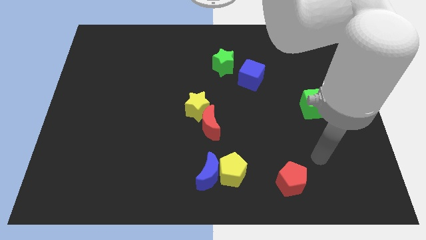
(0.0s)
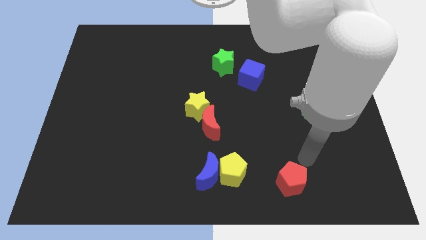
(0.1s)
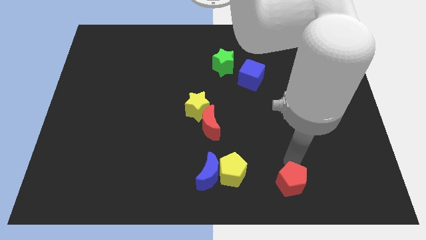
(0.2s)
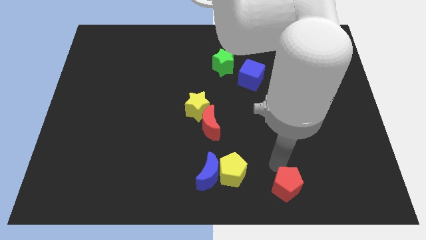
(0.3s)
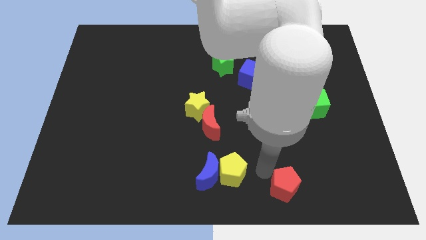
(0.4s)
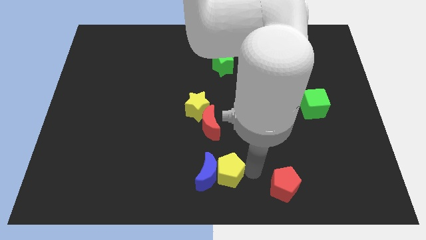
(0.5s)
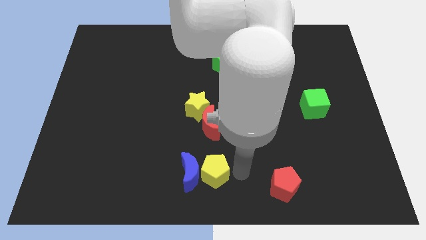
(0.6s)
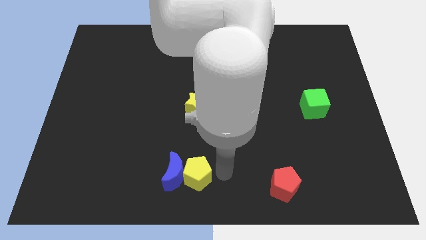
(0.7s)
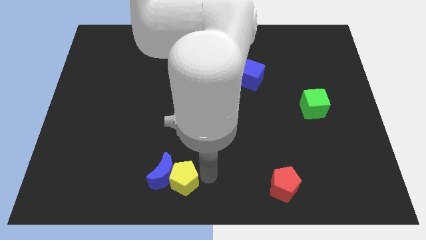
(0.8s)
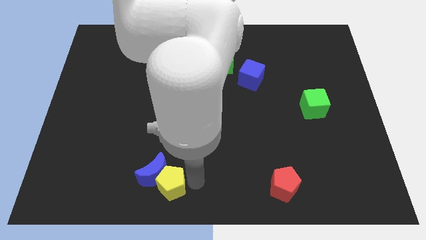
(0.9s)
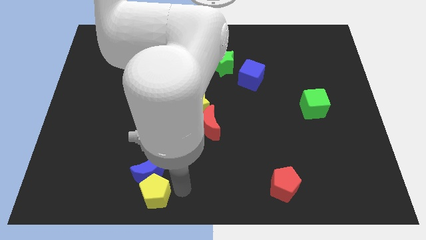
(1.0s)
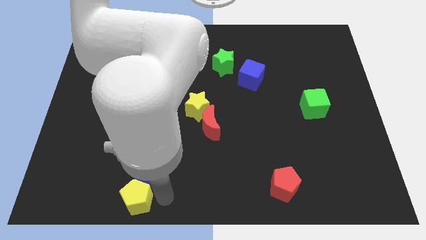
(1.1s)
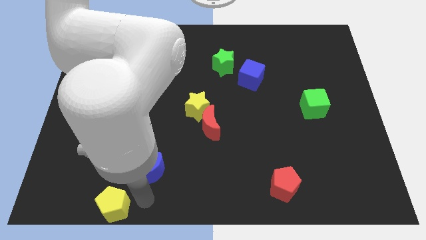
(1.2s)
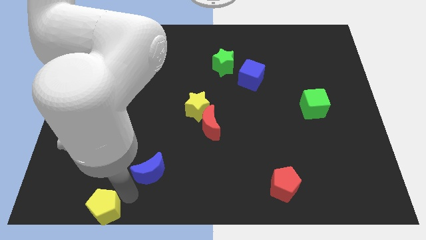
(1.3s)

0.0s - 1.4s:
pull the blue moon apart from the yellow pentagon

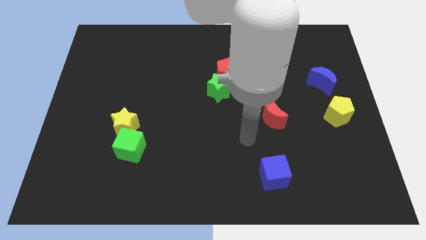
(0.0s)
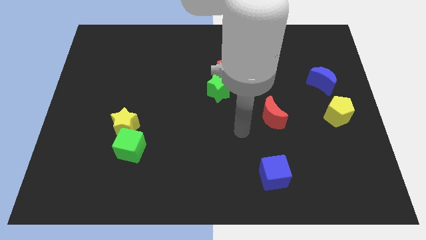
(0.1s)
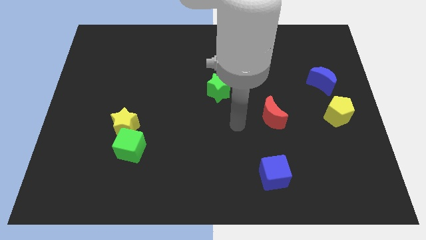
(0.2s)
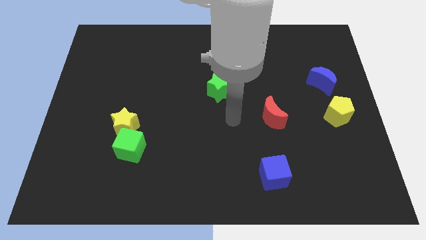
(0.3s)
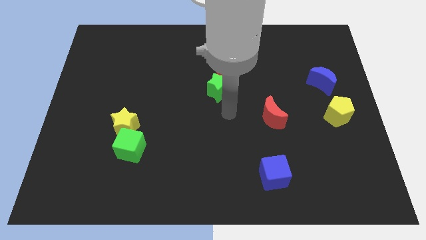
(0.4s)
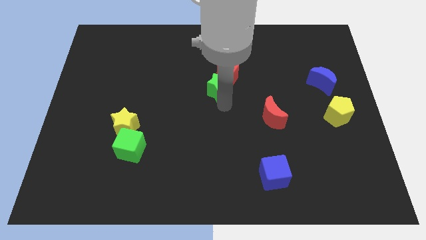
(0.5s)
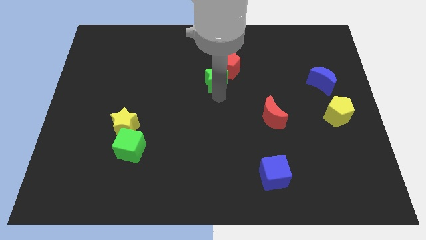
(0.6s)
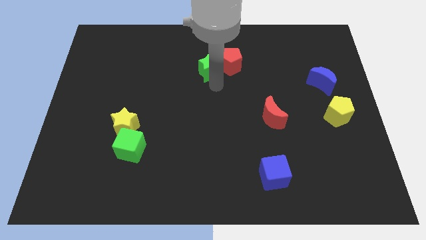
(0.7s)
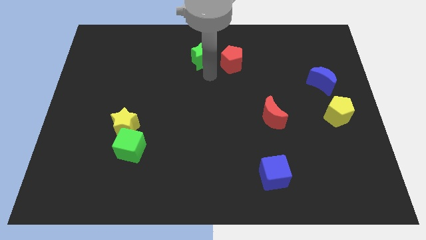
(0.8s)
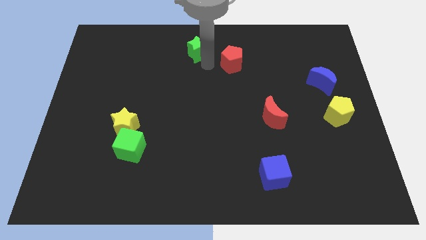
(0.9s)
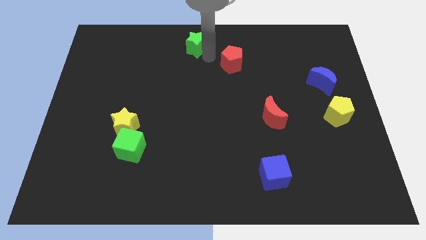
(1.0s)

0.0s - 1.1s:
move the red pentagon away from the green star

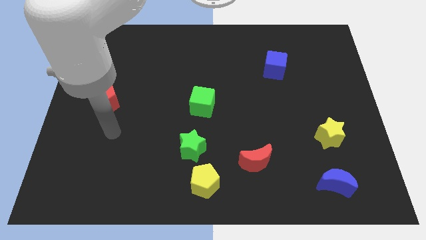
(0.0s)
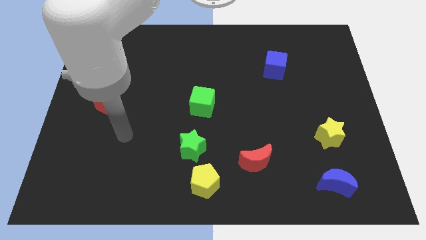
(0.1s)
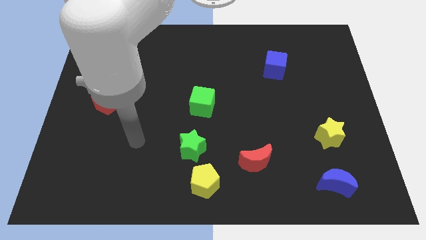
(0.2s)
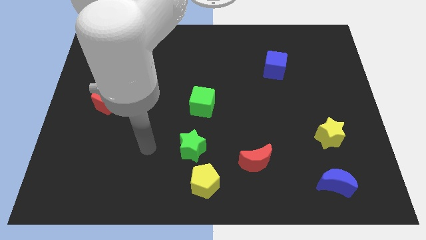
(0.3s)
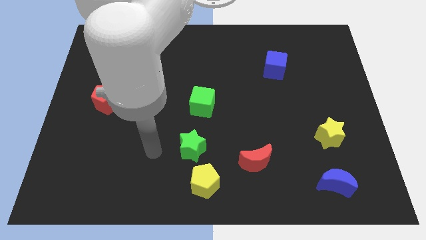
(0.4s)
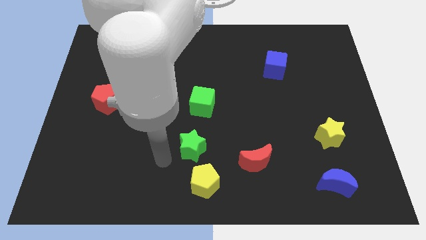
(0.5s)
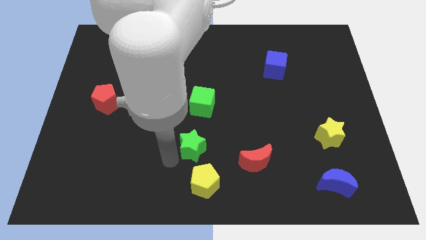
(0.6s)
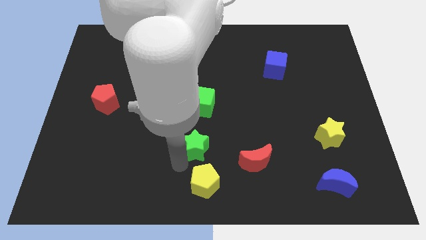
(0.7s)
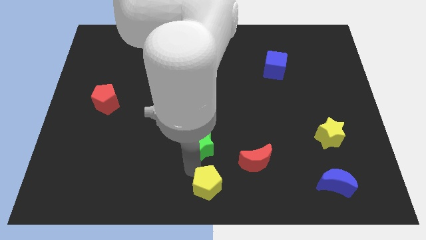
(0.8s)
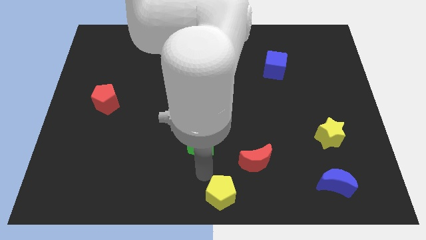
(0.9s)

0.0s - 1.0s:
move the green star away from the yellow pentagon

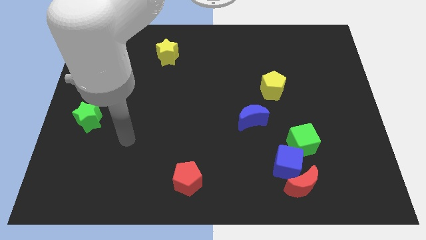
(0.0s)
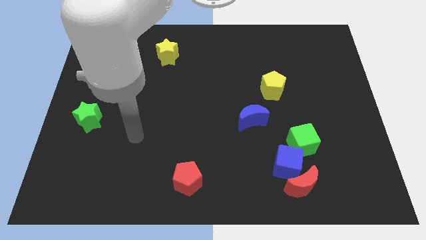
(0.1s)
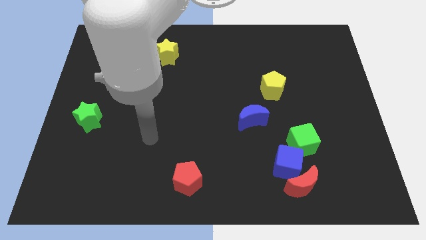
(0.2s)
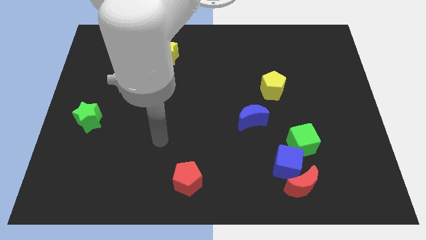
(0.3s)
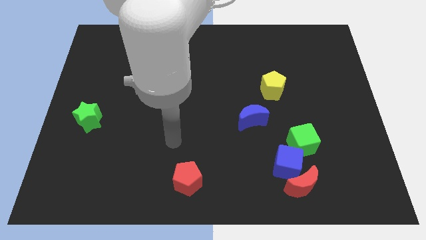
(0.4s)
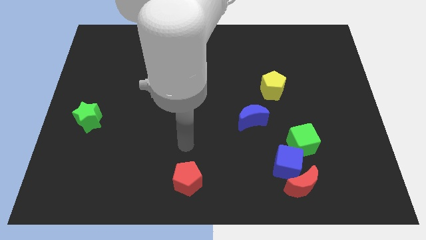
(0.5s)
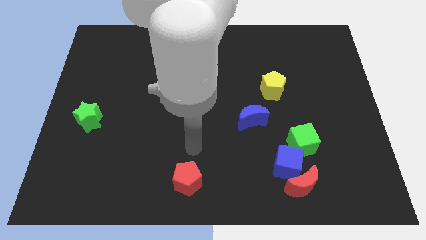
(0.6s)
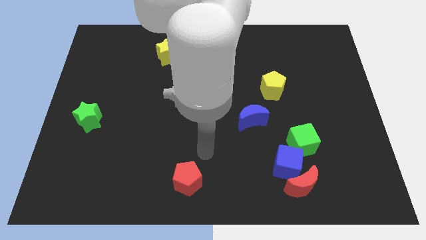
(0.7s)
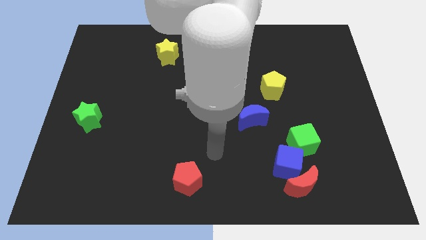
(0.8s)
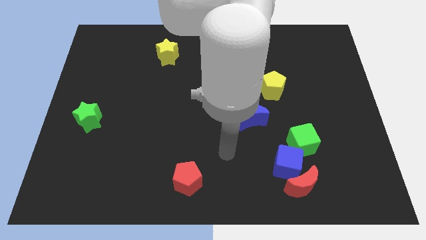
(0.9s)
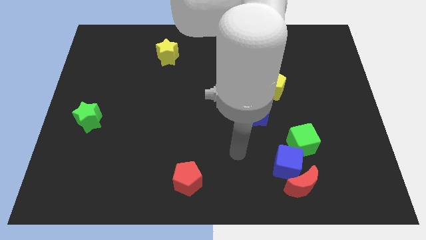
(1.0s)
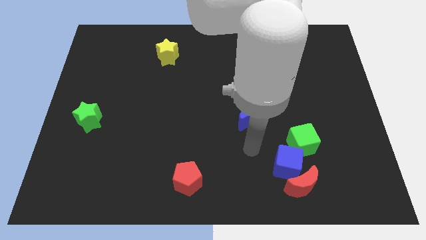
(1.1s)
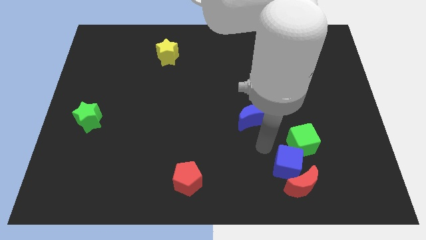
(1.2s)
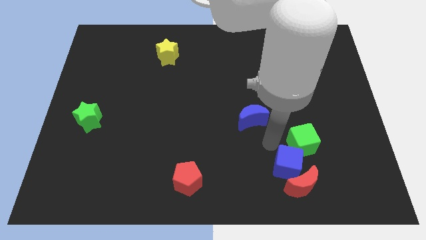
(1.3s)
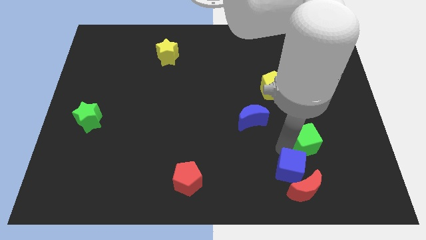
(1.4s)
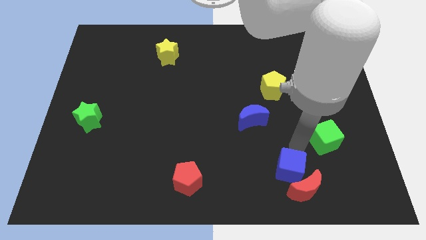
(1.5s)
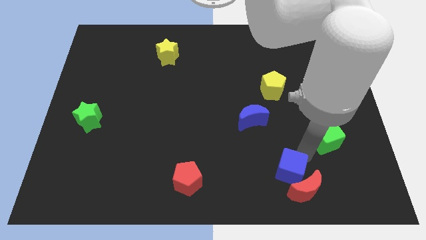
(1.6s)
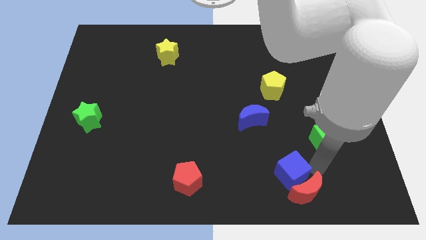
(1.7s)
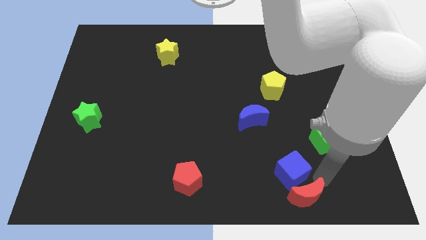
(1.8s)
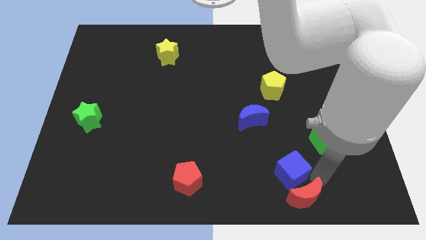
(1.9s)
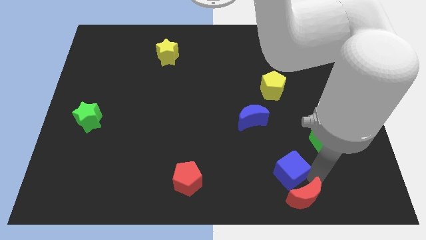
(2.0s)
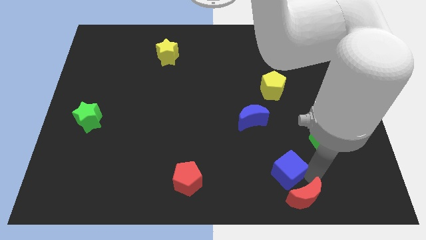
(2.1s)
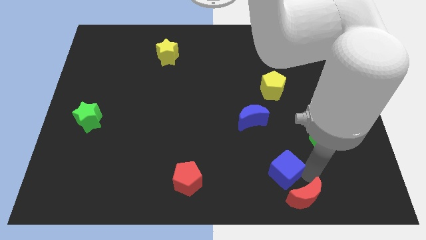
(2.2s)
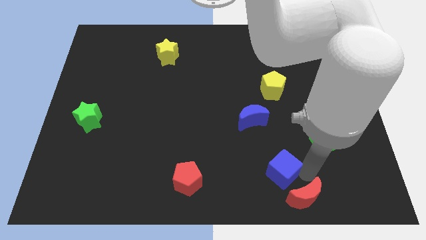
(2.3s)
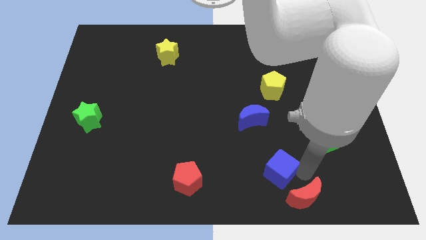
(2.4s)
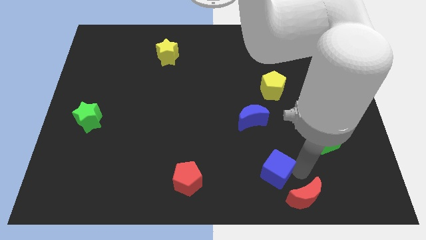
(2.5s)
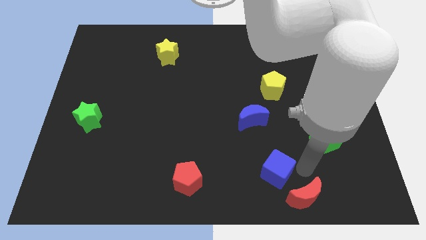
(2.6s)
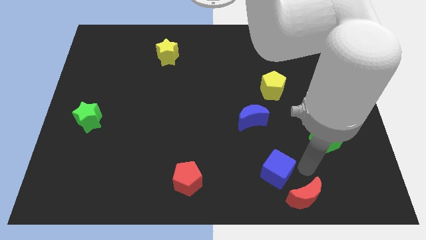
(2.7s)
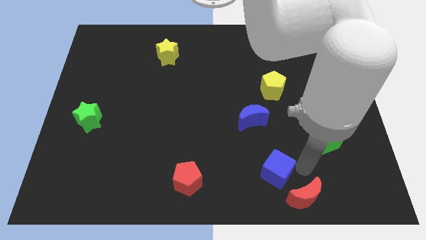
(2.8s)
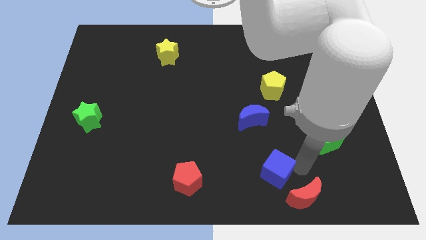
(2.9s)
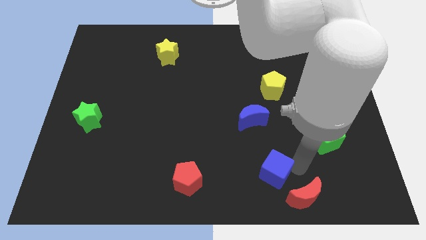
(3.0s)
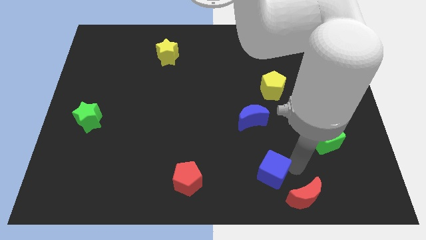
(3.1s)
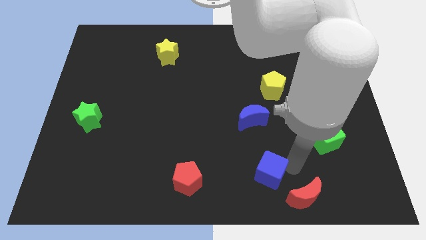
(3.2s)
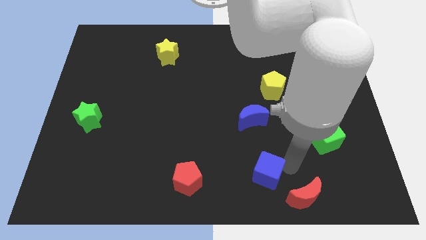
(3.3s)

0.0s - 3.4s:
separate the blue cube from the red moon and green cube

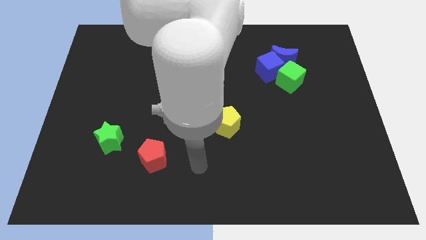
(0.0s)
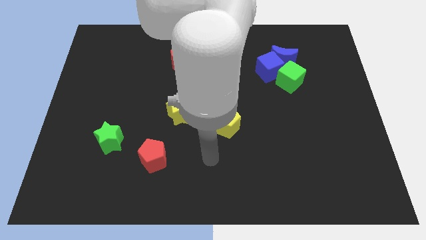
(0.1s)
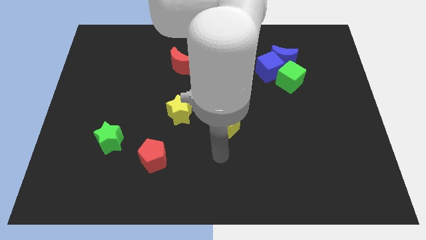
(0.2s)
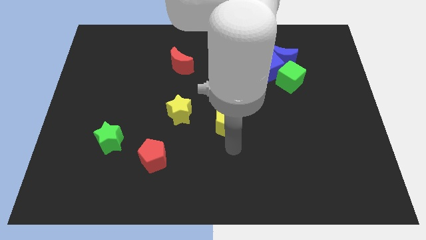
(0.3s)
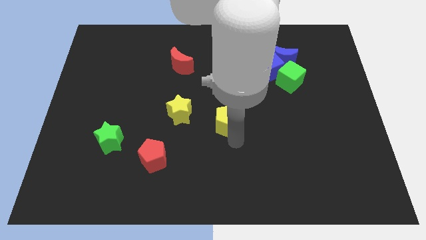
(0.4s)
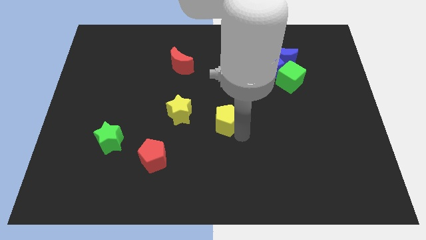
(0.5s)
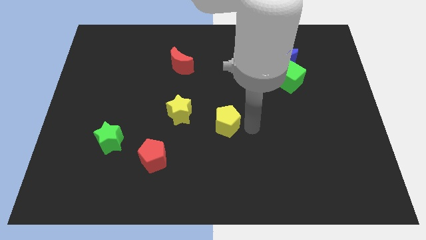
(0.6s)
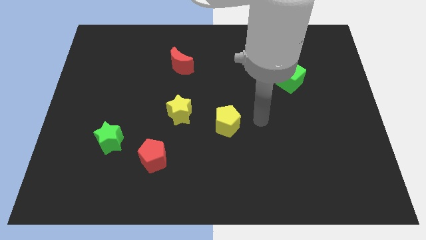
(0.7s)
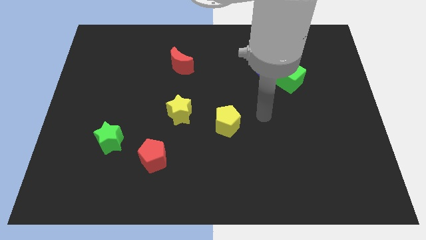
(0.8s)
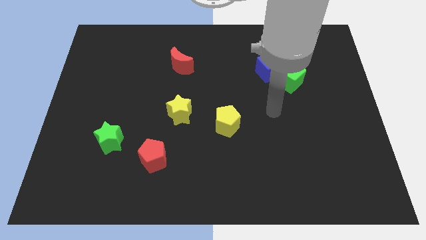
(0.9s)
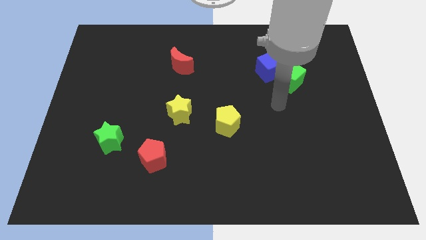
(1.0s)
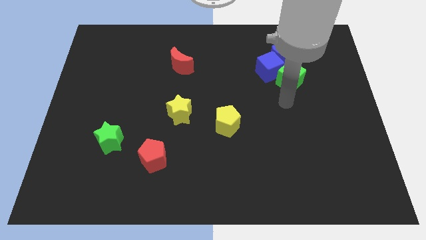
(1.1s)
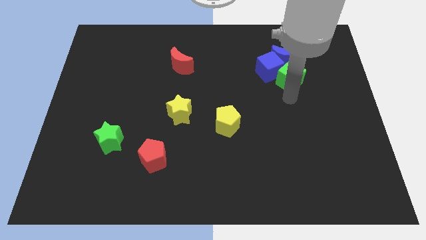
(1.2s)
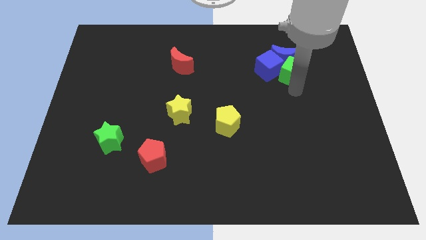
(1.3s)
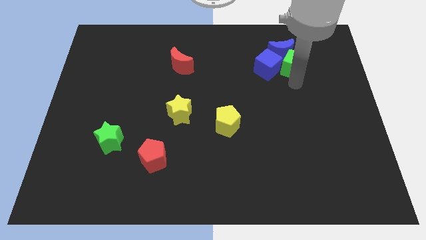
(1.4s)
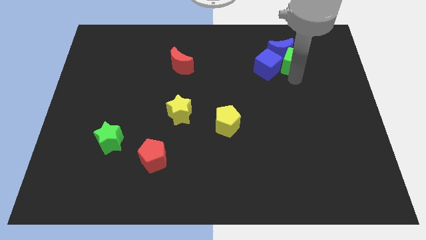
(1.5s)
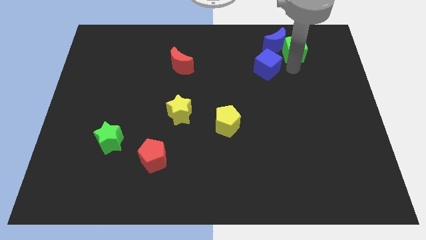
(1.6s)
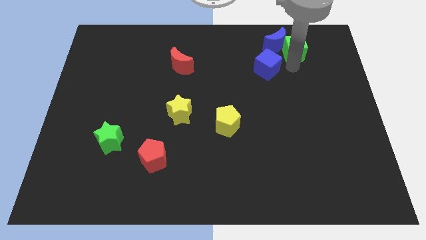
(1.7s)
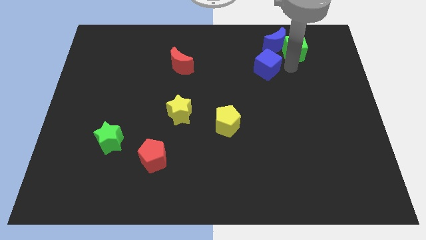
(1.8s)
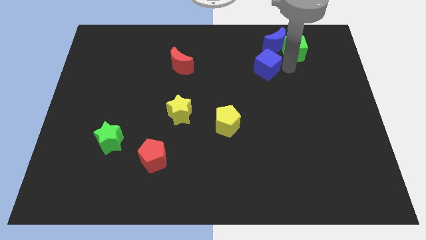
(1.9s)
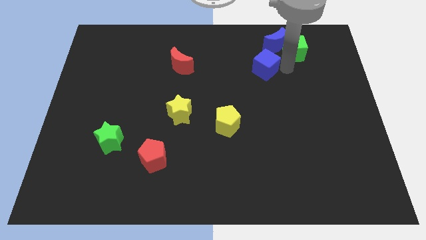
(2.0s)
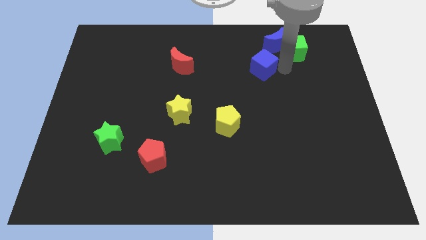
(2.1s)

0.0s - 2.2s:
pull the blue cube apart from the blue moon and green cube

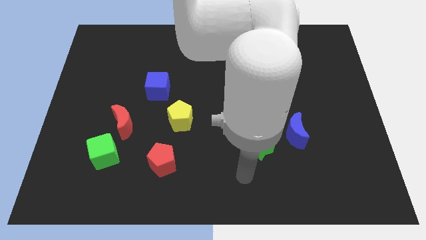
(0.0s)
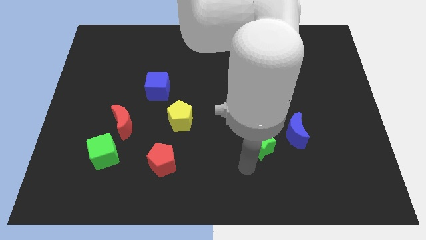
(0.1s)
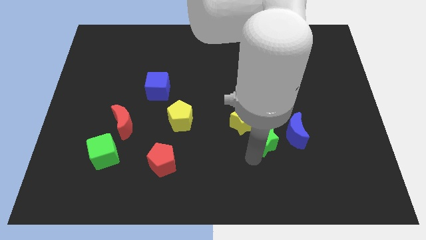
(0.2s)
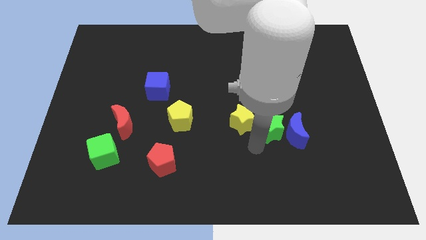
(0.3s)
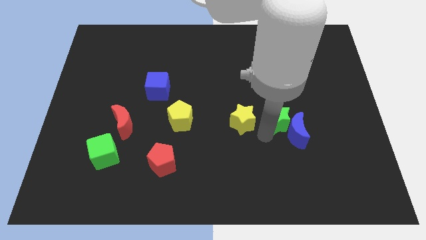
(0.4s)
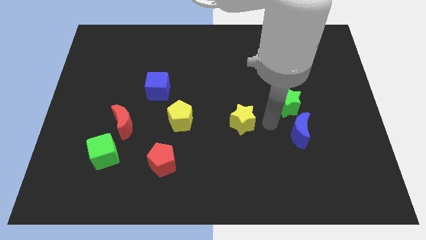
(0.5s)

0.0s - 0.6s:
pull the yellow star apart from the green star
